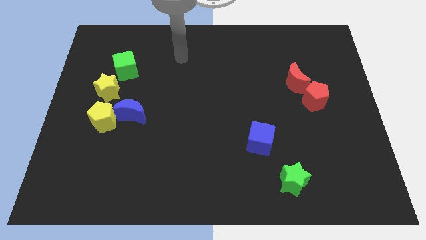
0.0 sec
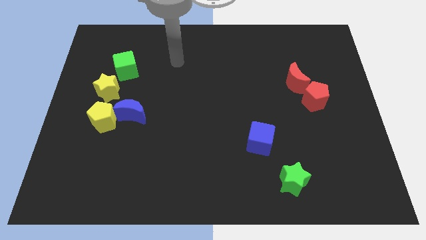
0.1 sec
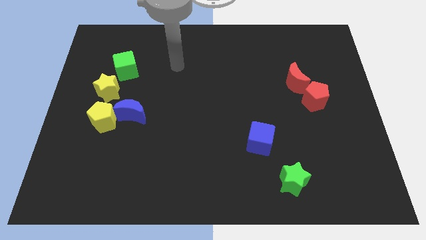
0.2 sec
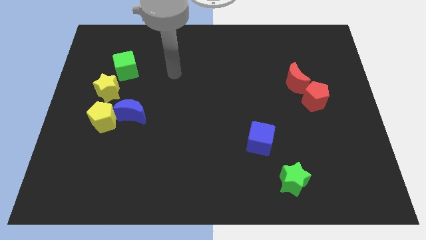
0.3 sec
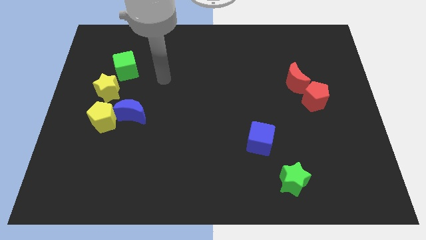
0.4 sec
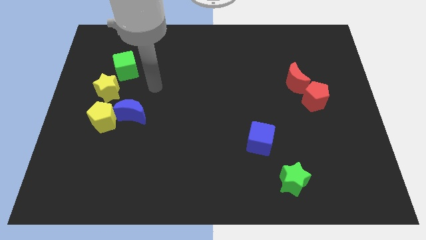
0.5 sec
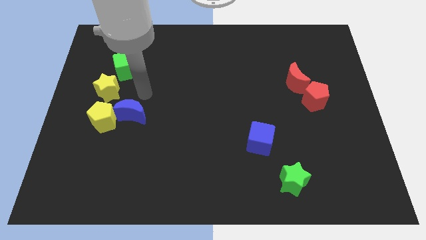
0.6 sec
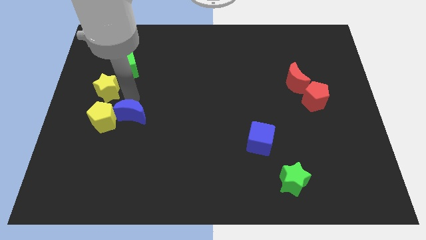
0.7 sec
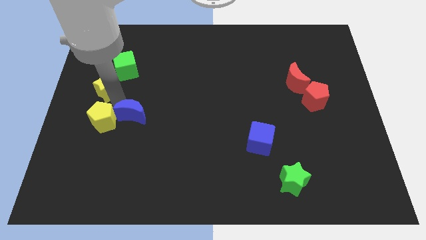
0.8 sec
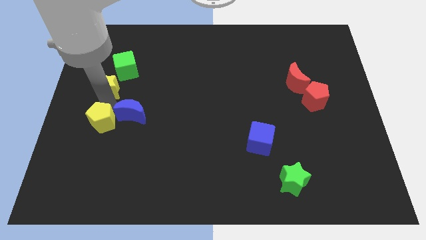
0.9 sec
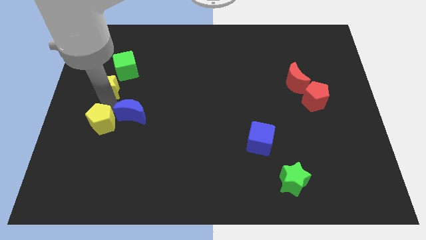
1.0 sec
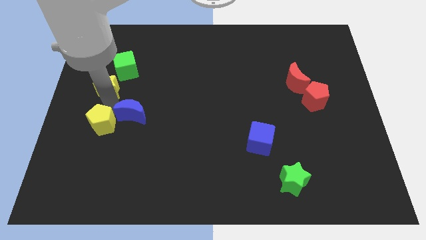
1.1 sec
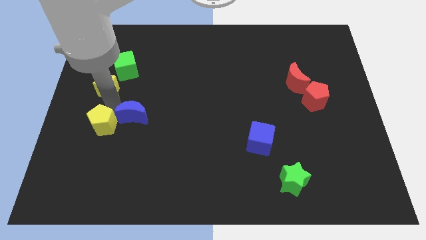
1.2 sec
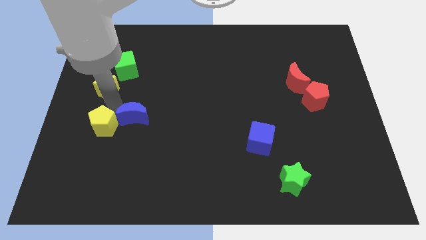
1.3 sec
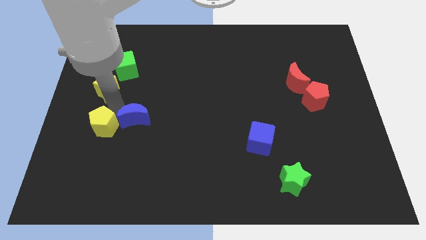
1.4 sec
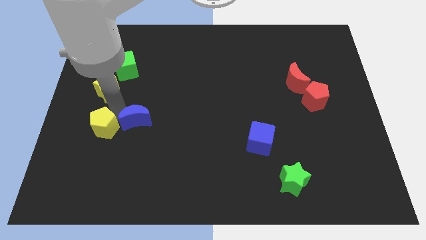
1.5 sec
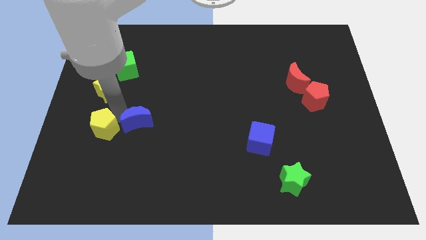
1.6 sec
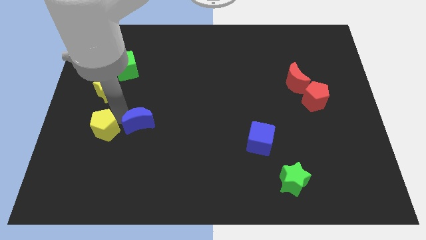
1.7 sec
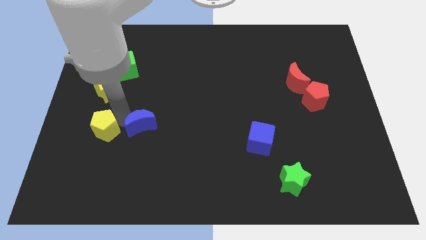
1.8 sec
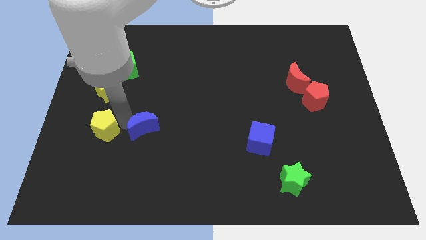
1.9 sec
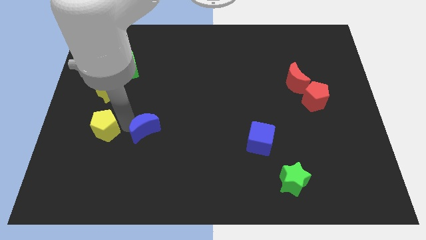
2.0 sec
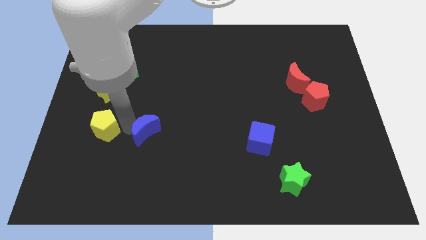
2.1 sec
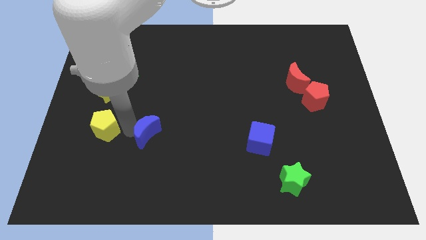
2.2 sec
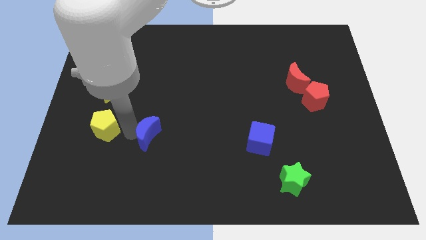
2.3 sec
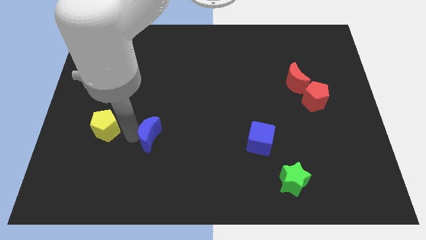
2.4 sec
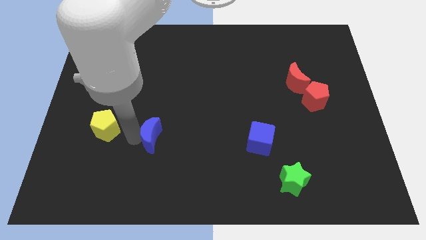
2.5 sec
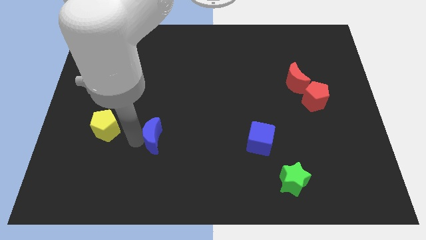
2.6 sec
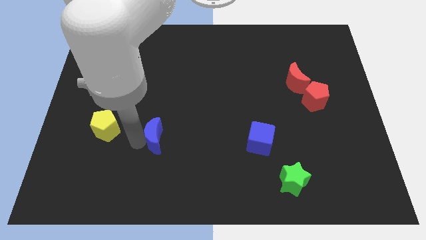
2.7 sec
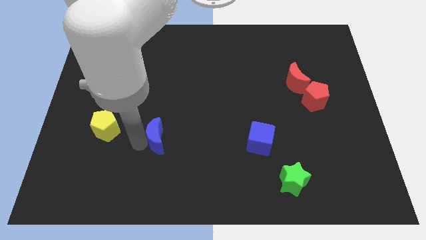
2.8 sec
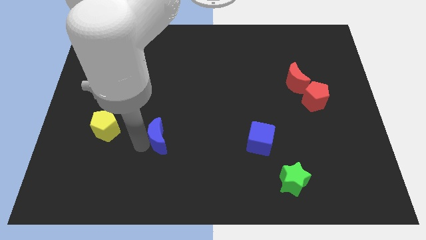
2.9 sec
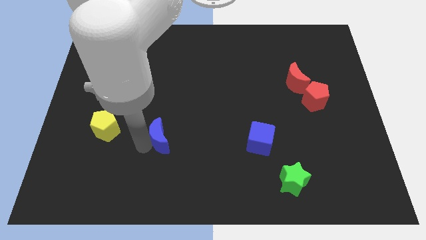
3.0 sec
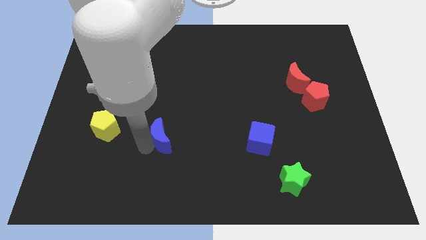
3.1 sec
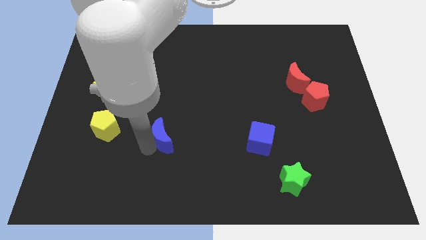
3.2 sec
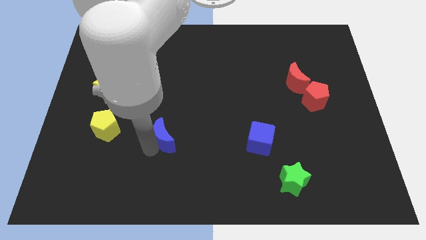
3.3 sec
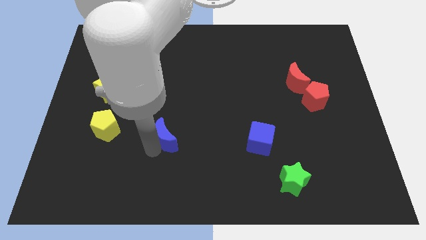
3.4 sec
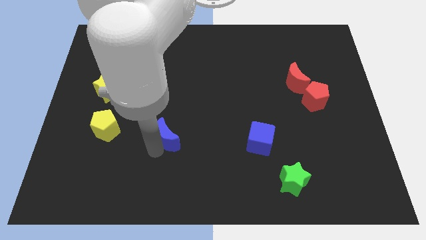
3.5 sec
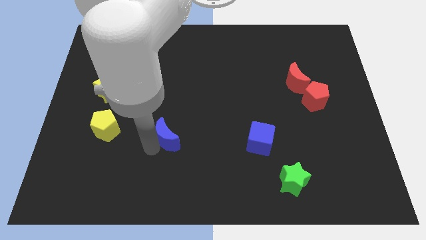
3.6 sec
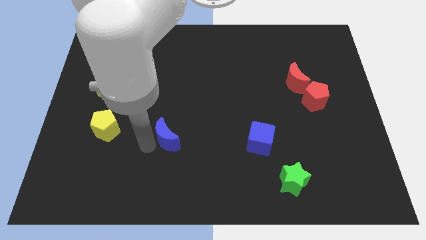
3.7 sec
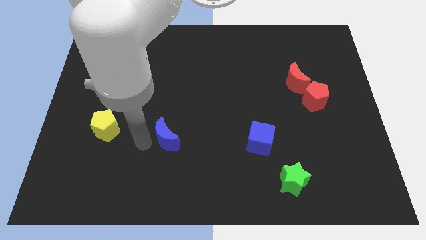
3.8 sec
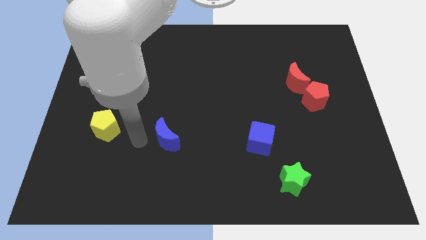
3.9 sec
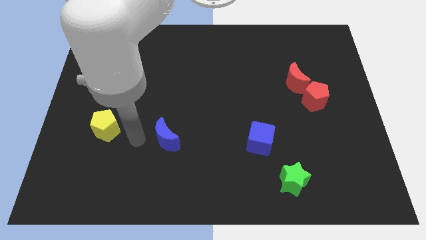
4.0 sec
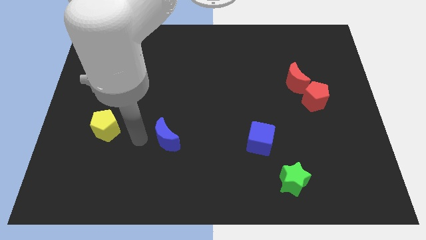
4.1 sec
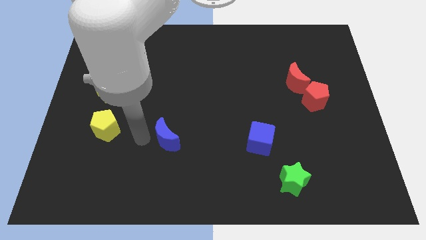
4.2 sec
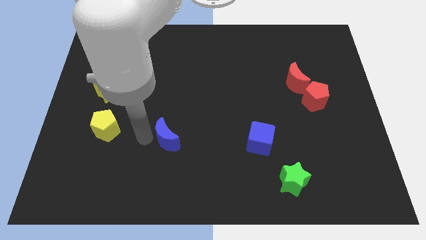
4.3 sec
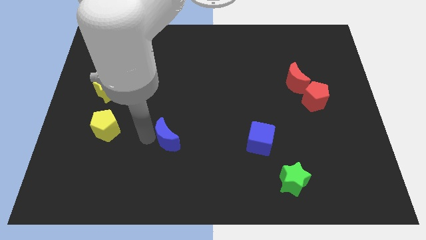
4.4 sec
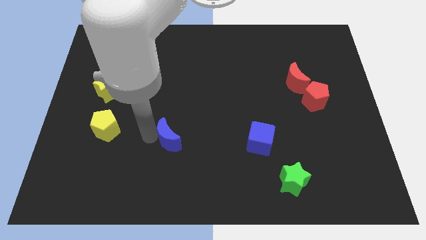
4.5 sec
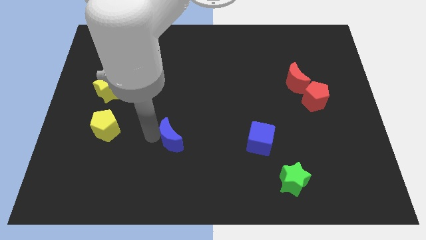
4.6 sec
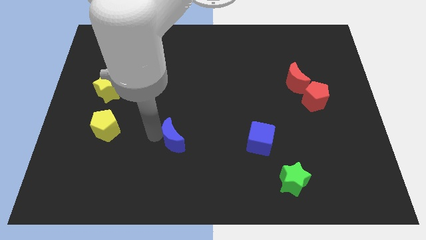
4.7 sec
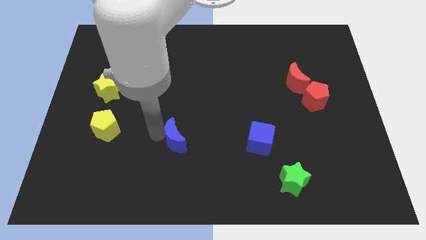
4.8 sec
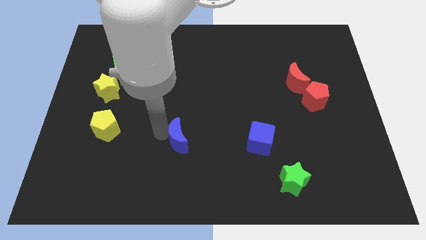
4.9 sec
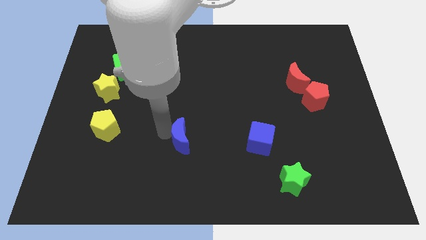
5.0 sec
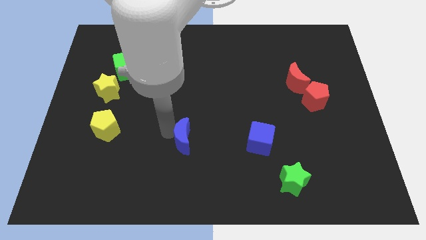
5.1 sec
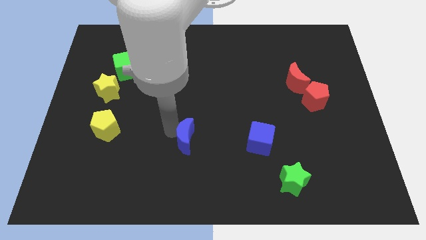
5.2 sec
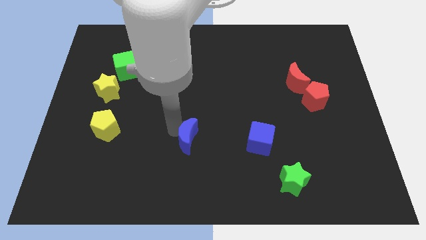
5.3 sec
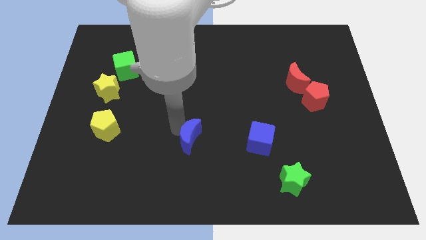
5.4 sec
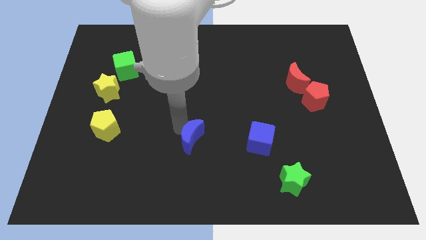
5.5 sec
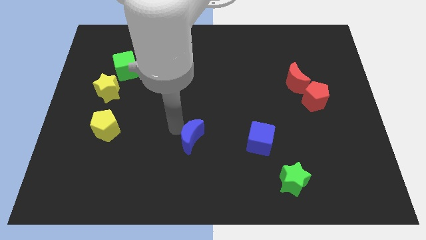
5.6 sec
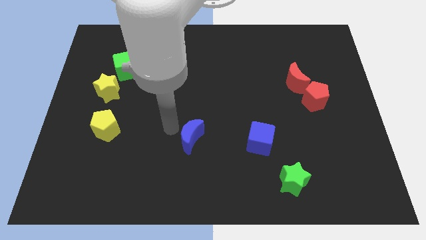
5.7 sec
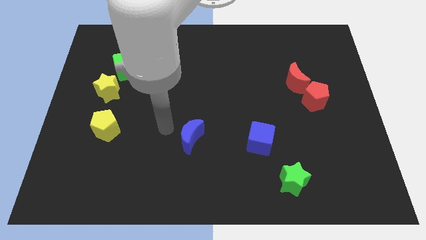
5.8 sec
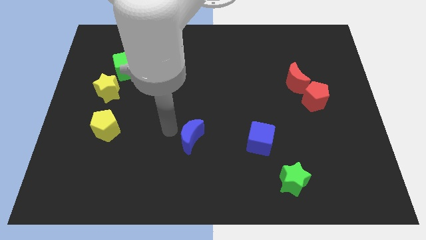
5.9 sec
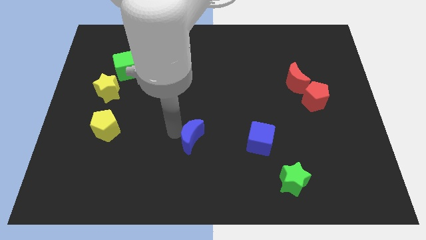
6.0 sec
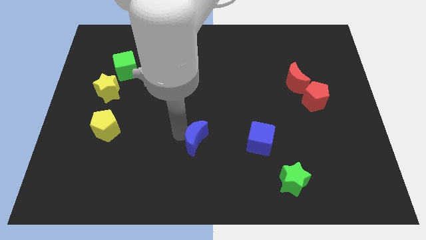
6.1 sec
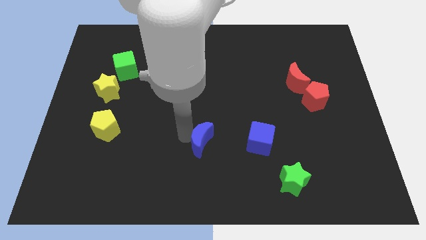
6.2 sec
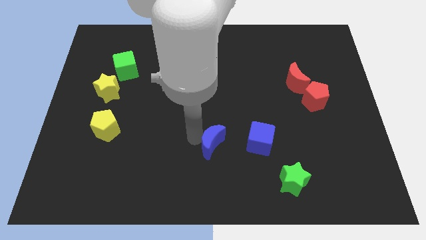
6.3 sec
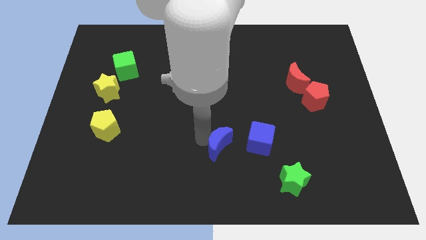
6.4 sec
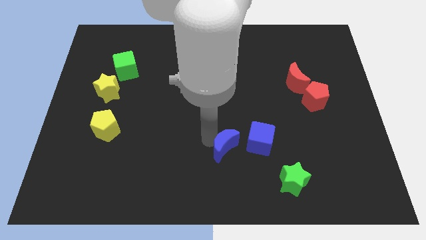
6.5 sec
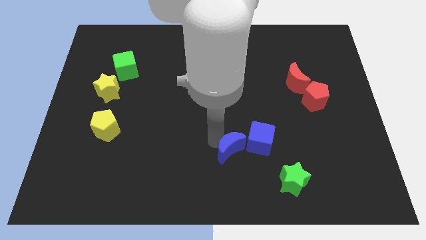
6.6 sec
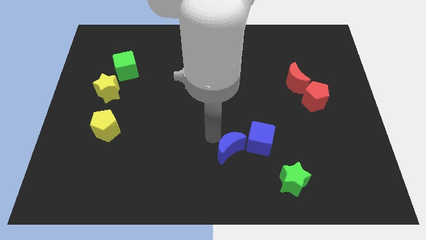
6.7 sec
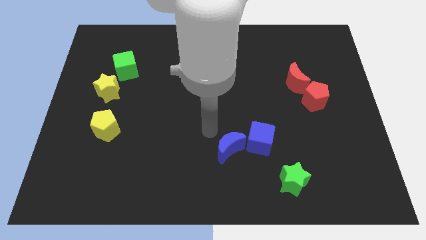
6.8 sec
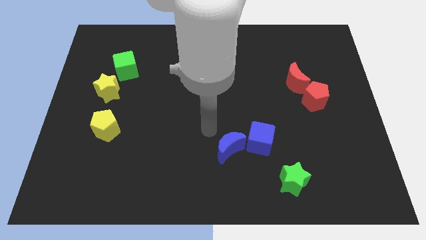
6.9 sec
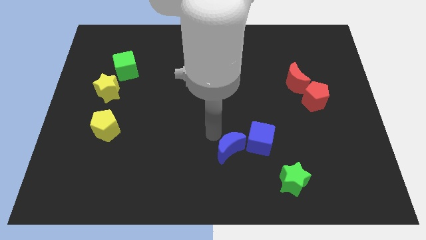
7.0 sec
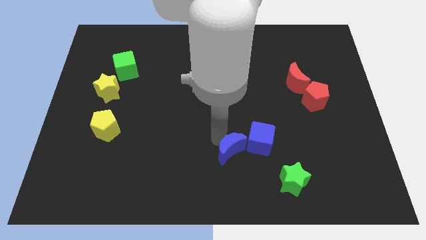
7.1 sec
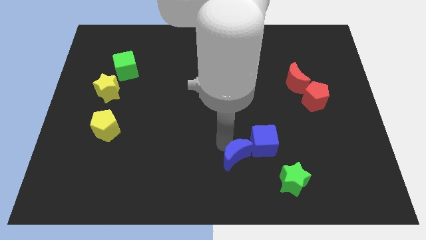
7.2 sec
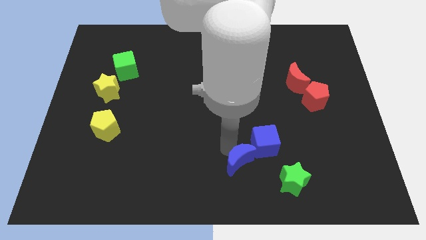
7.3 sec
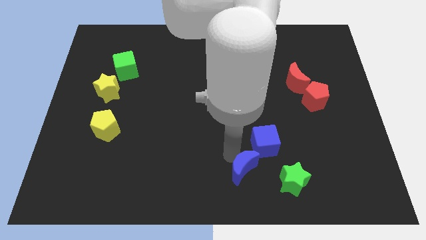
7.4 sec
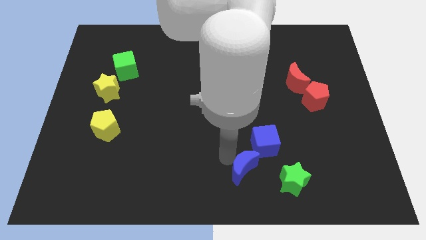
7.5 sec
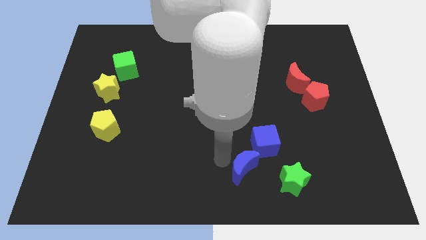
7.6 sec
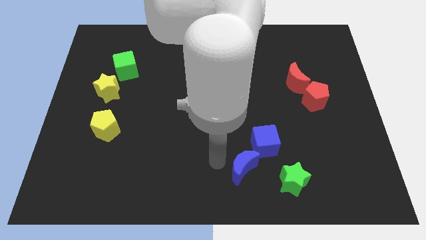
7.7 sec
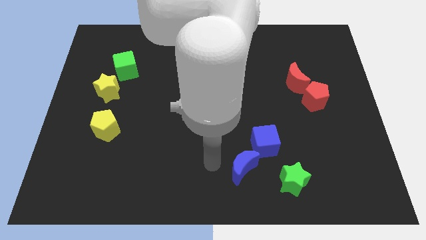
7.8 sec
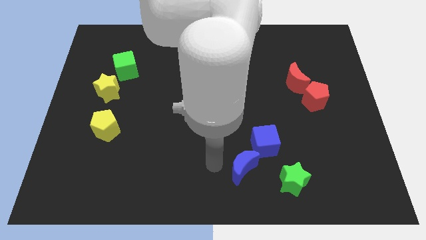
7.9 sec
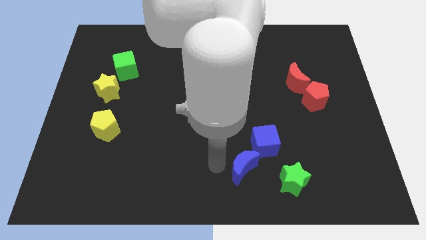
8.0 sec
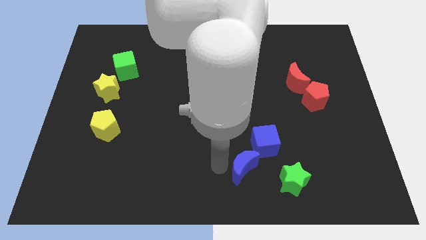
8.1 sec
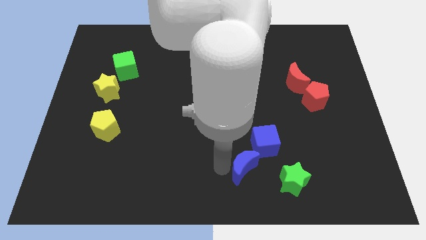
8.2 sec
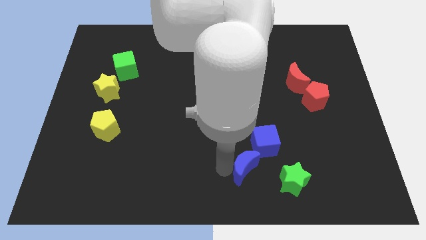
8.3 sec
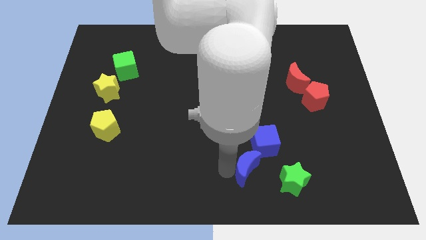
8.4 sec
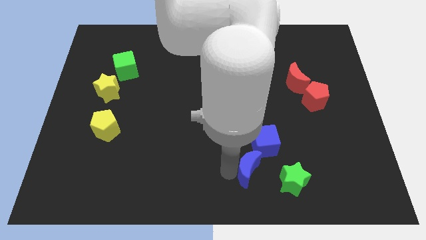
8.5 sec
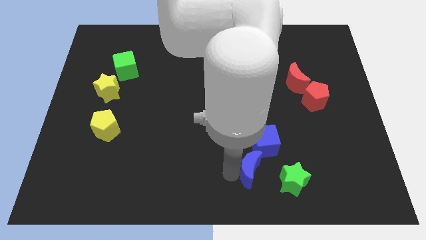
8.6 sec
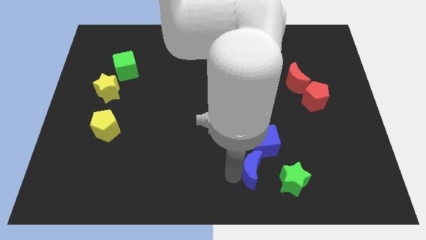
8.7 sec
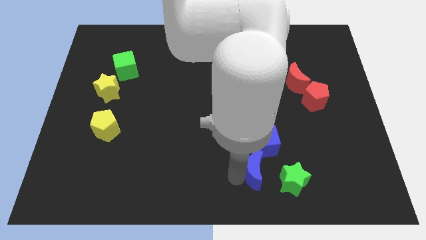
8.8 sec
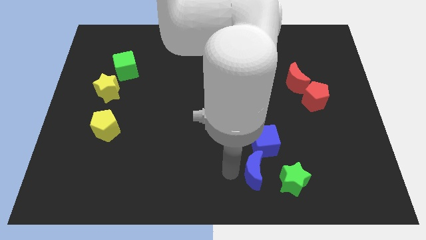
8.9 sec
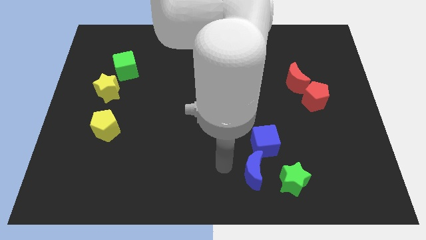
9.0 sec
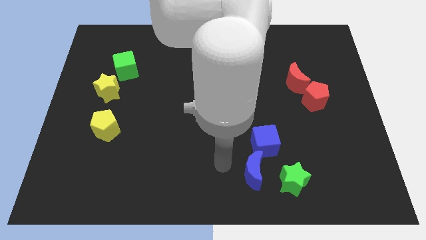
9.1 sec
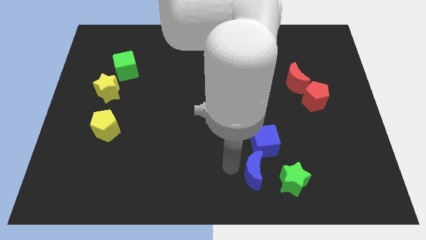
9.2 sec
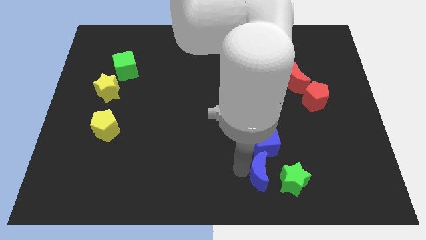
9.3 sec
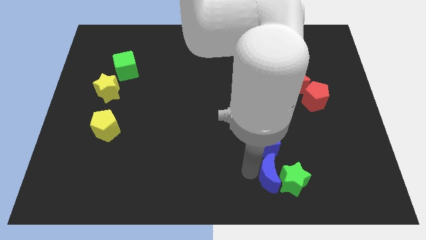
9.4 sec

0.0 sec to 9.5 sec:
move the blue moon towards the green star
